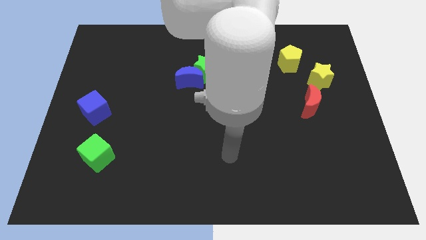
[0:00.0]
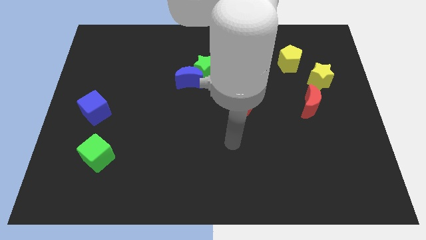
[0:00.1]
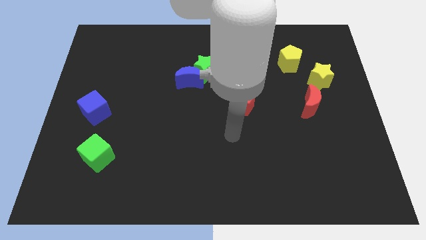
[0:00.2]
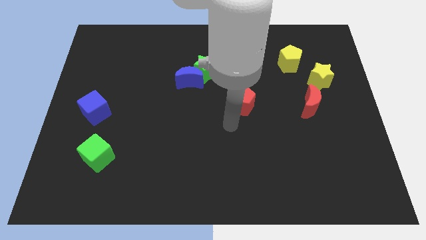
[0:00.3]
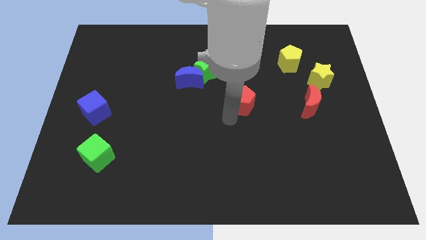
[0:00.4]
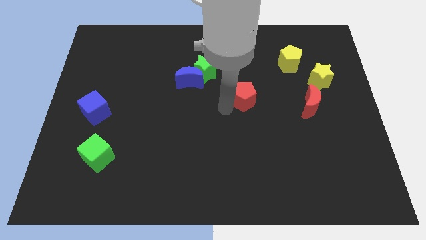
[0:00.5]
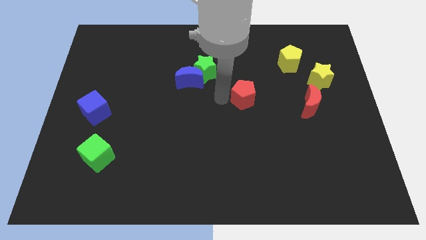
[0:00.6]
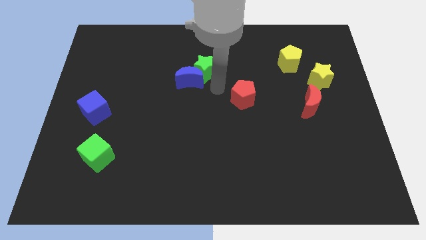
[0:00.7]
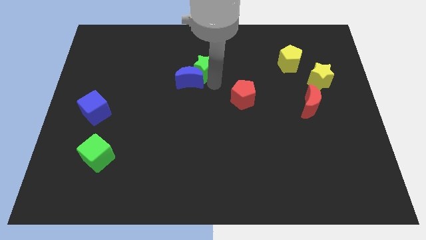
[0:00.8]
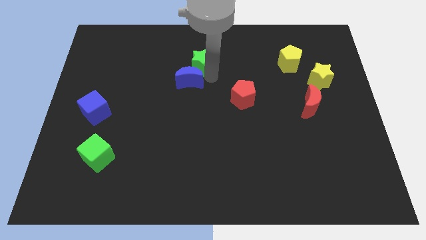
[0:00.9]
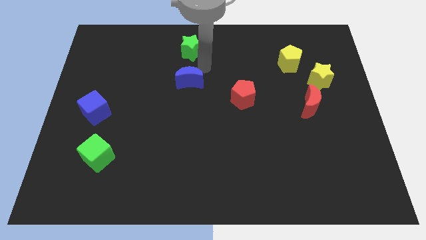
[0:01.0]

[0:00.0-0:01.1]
move the blue moon away from the green star

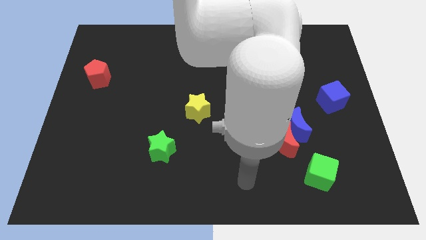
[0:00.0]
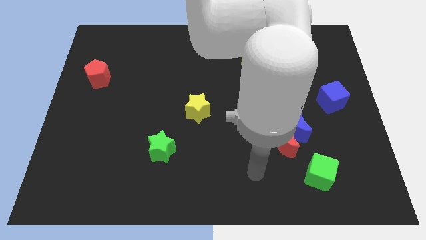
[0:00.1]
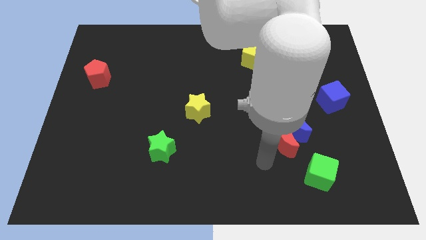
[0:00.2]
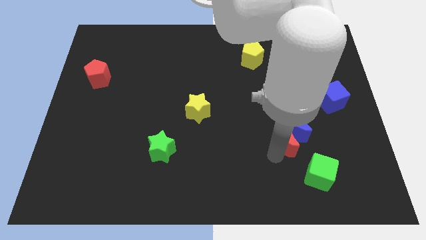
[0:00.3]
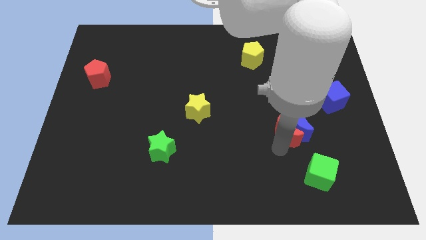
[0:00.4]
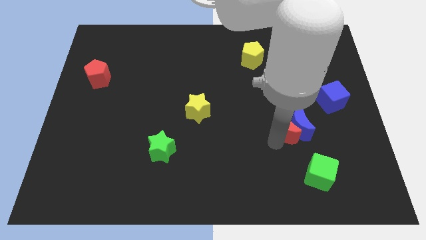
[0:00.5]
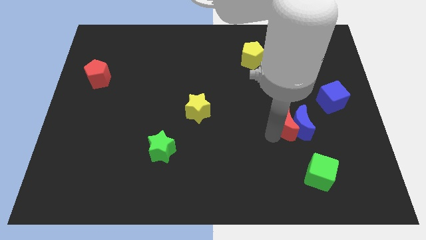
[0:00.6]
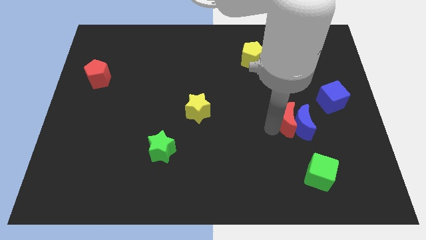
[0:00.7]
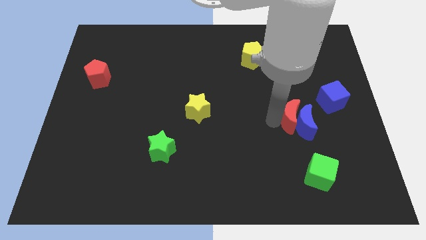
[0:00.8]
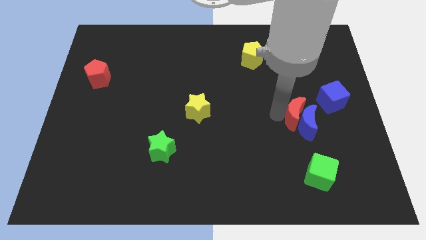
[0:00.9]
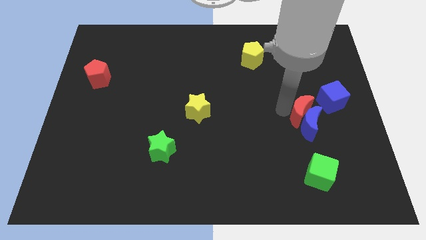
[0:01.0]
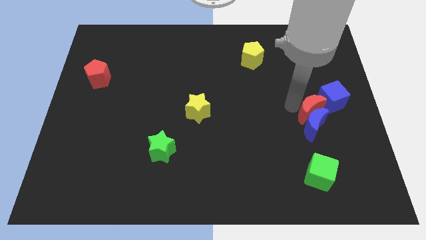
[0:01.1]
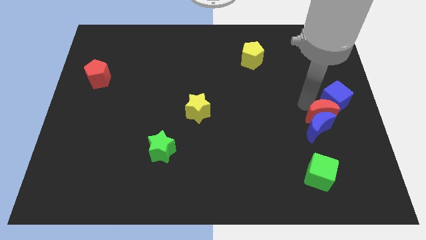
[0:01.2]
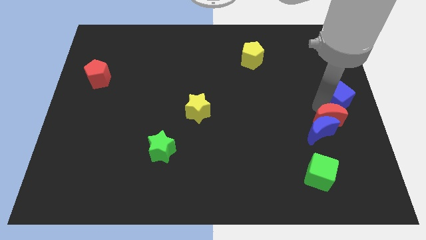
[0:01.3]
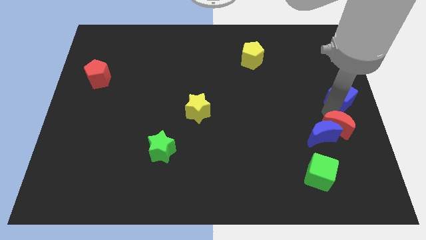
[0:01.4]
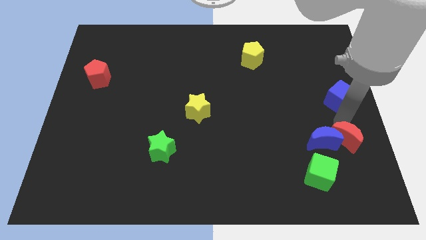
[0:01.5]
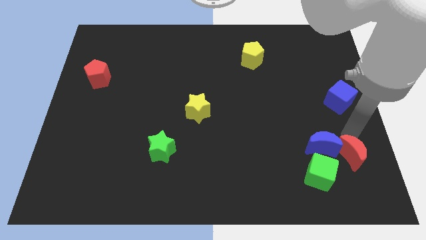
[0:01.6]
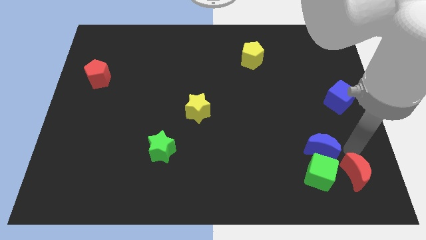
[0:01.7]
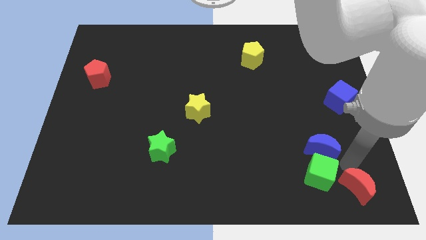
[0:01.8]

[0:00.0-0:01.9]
pull the blue moon apart from the red moon

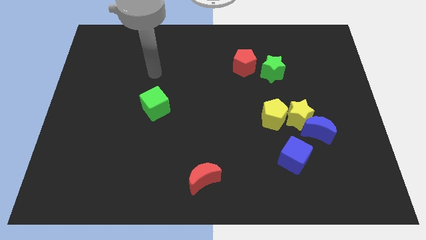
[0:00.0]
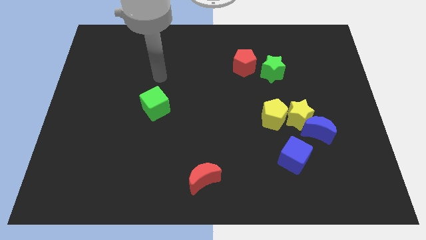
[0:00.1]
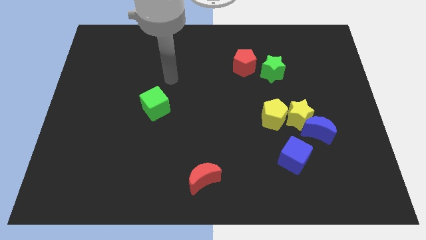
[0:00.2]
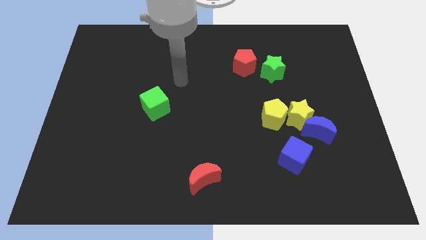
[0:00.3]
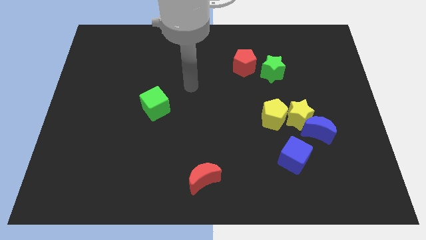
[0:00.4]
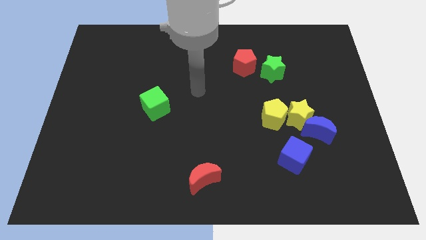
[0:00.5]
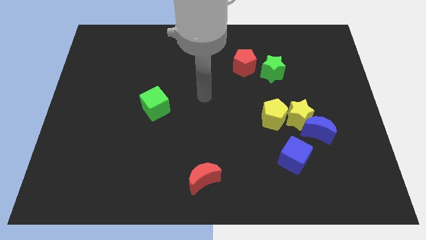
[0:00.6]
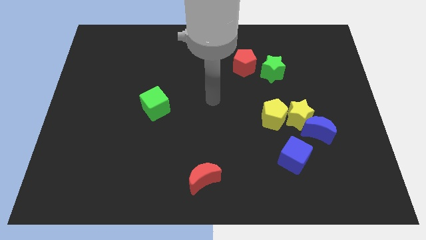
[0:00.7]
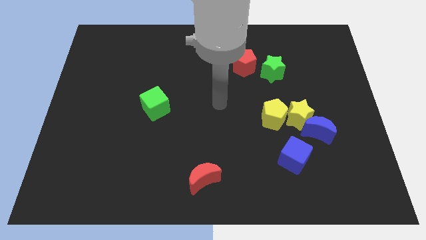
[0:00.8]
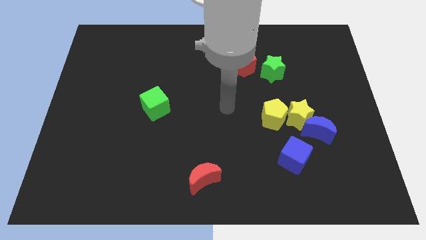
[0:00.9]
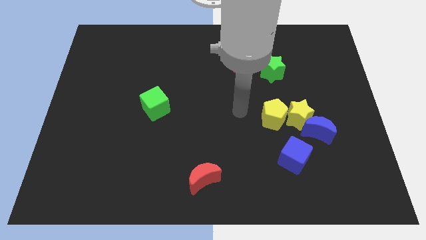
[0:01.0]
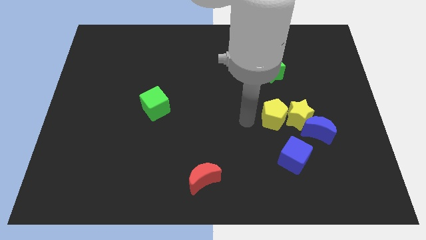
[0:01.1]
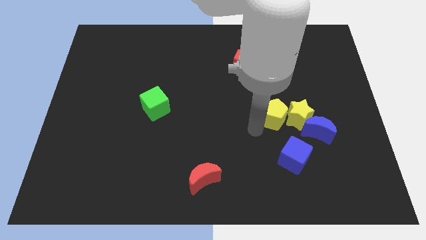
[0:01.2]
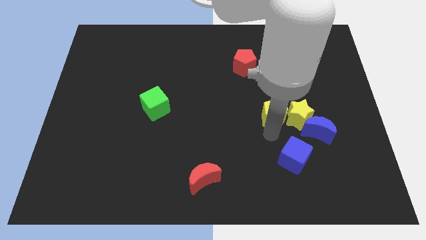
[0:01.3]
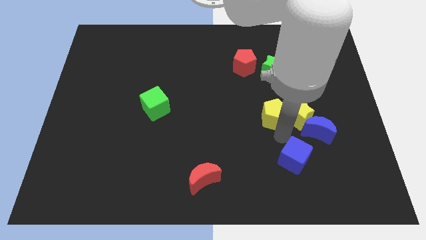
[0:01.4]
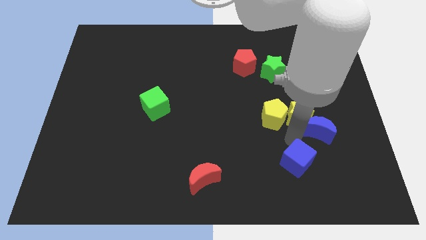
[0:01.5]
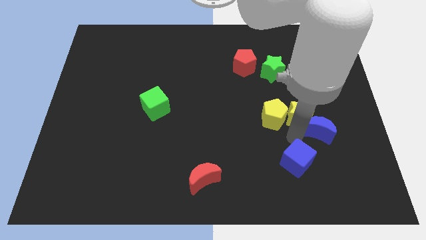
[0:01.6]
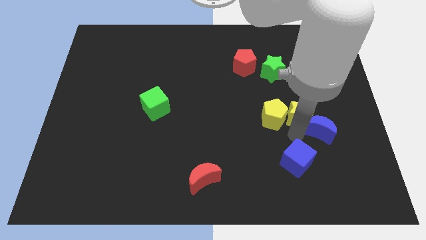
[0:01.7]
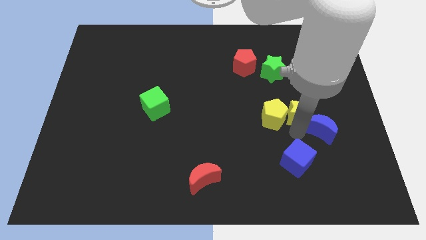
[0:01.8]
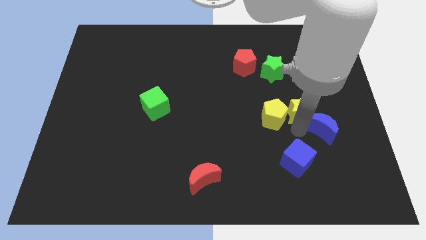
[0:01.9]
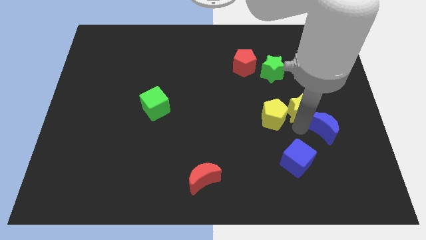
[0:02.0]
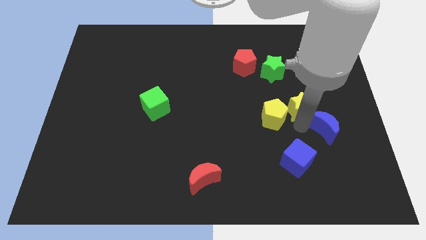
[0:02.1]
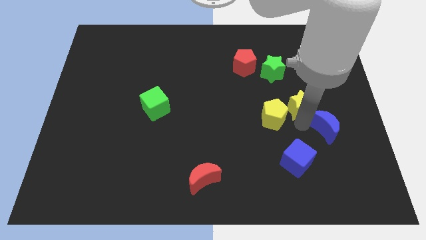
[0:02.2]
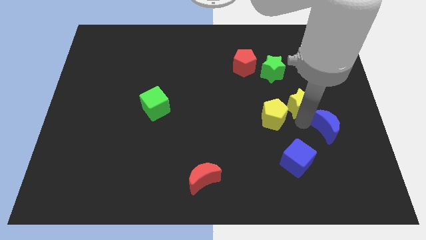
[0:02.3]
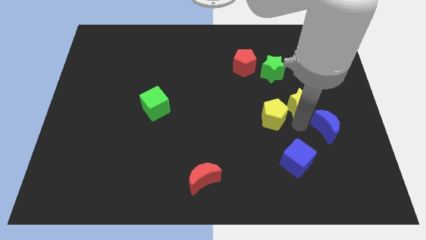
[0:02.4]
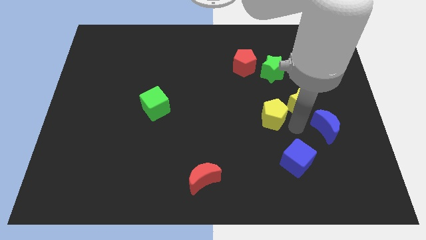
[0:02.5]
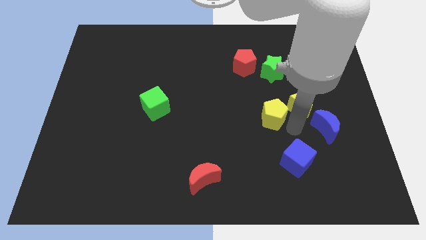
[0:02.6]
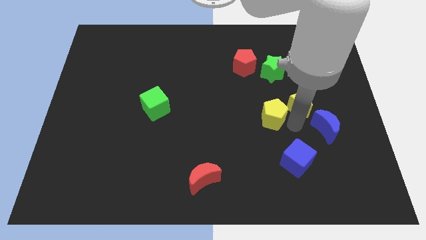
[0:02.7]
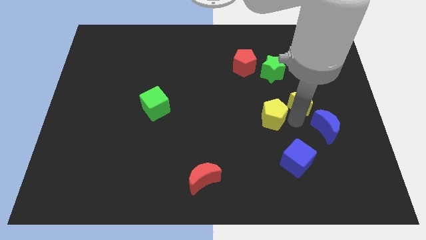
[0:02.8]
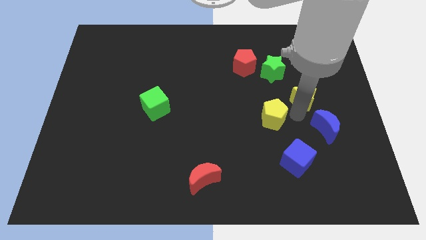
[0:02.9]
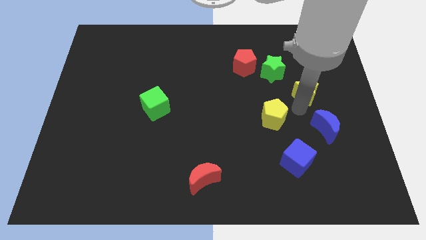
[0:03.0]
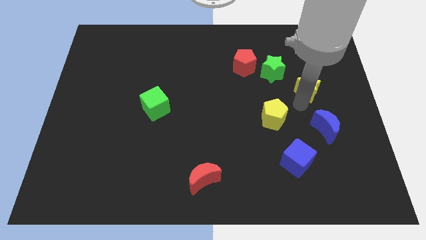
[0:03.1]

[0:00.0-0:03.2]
move the yellow star away from the blue moon and yellow pentagon

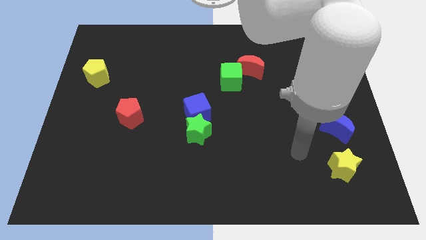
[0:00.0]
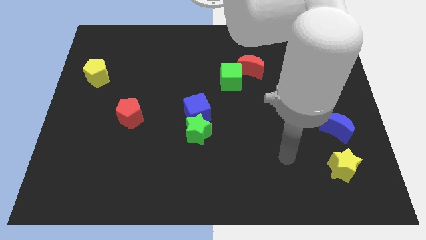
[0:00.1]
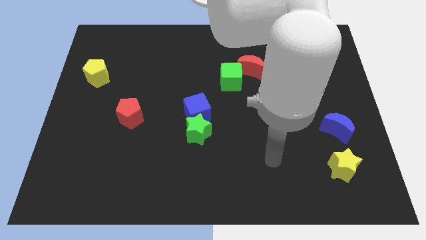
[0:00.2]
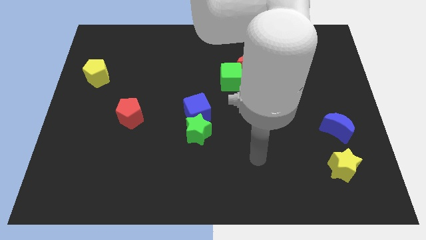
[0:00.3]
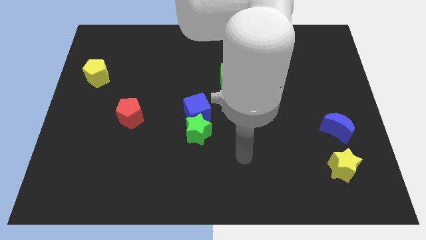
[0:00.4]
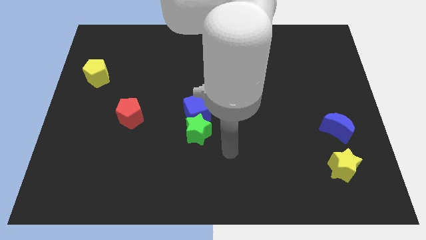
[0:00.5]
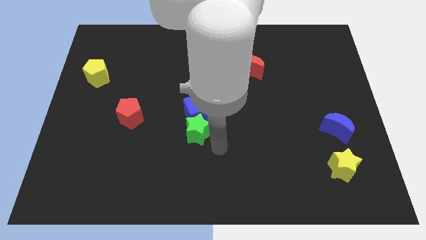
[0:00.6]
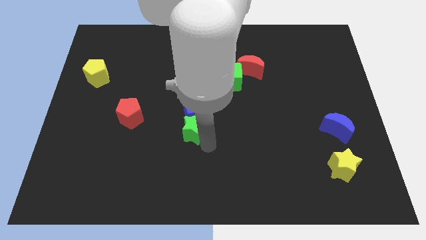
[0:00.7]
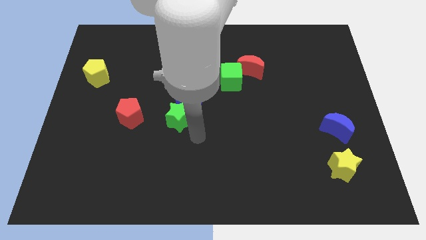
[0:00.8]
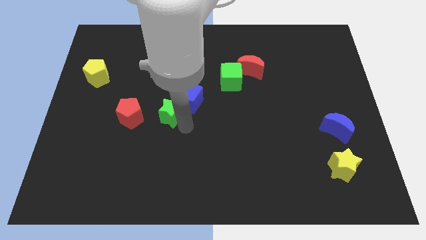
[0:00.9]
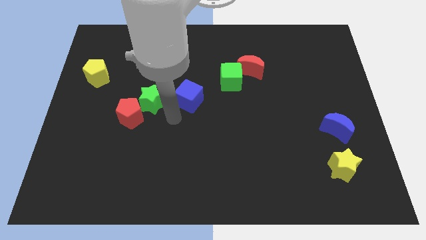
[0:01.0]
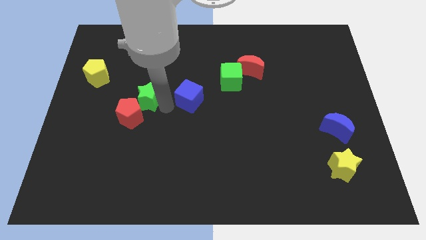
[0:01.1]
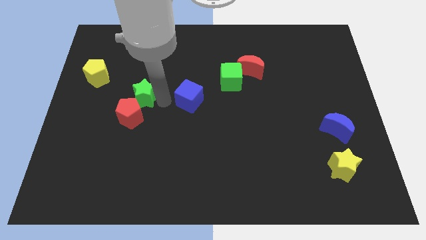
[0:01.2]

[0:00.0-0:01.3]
pull the blue cube apart from the green star

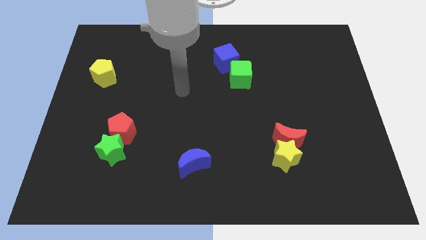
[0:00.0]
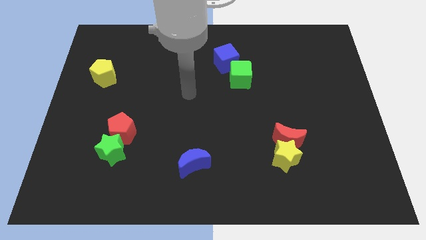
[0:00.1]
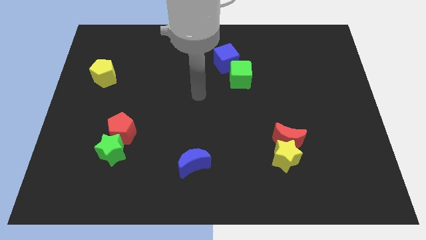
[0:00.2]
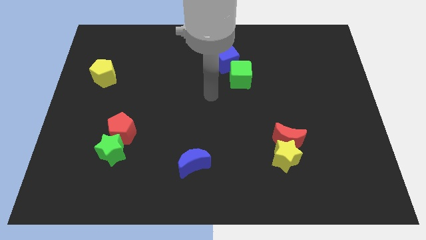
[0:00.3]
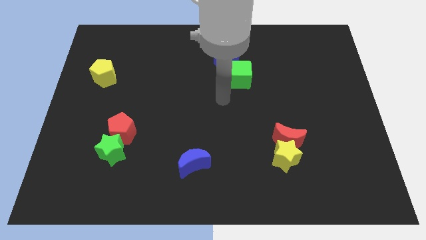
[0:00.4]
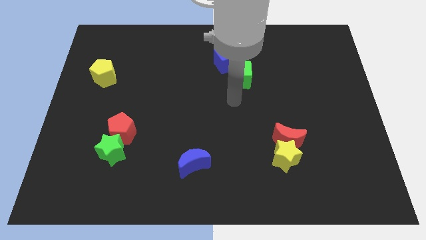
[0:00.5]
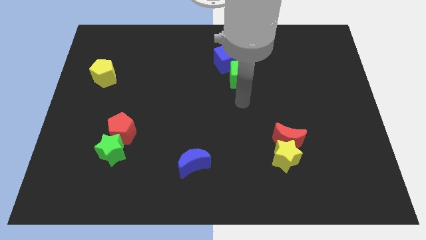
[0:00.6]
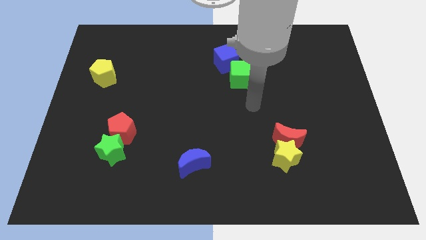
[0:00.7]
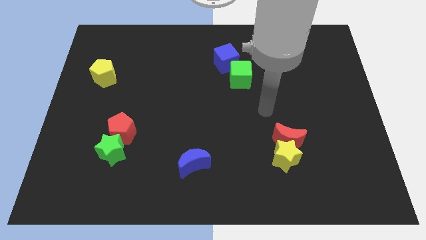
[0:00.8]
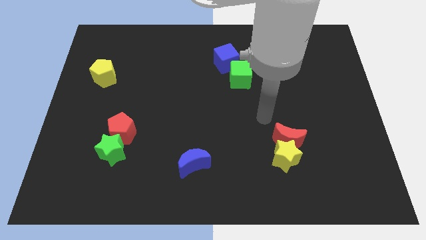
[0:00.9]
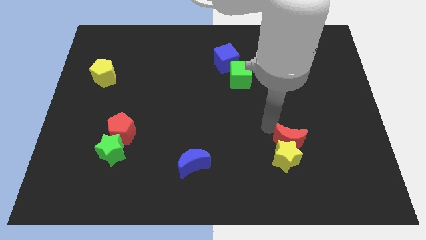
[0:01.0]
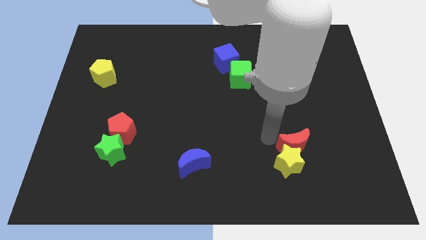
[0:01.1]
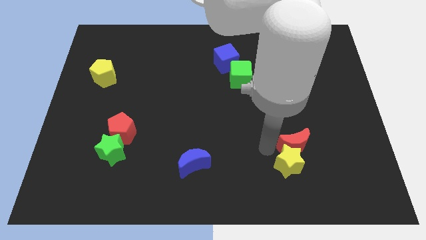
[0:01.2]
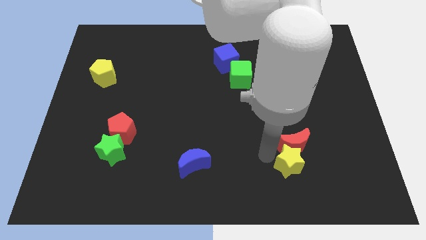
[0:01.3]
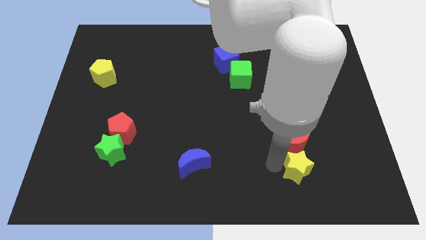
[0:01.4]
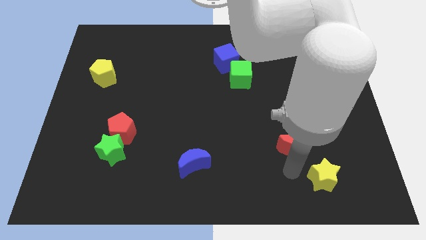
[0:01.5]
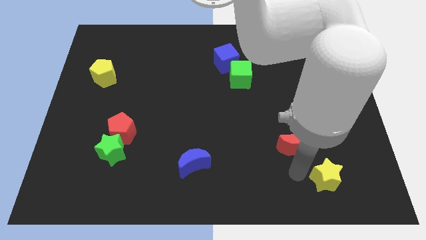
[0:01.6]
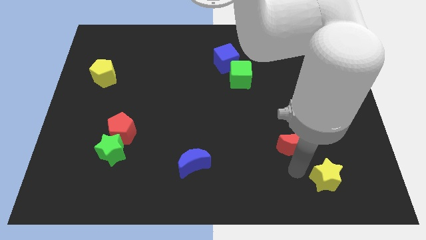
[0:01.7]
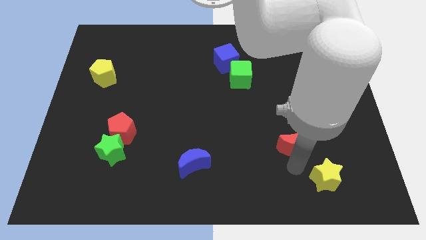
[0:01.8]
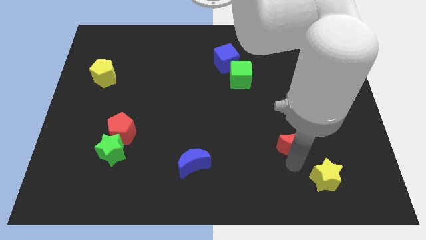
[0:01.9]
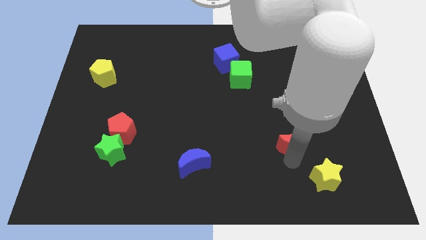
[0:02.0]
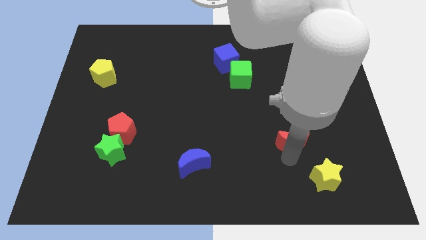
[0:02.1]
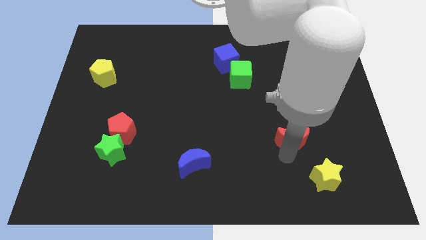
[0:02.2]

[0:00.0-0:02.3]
pull the red moon apart from the yellow star
